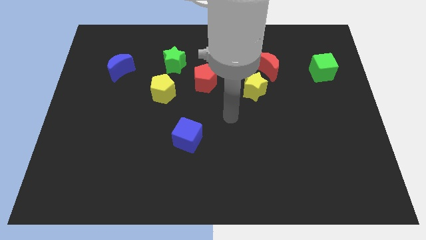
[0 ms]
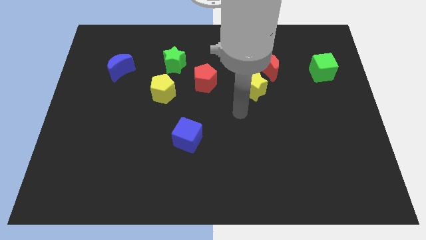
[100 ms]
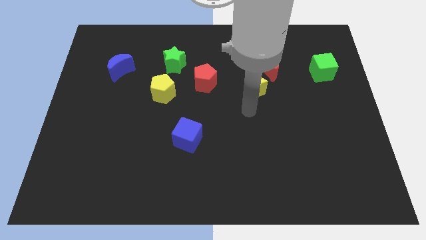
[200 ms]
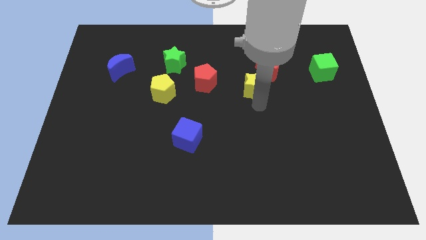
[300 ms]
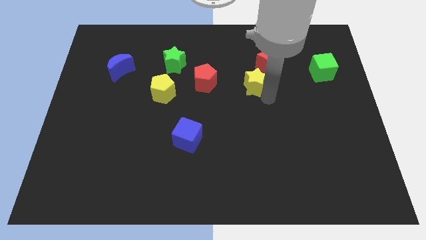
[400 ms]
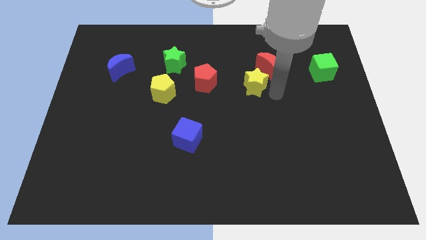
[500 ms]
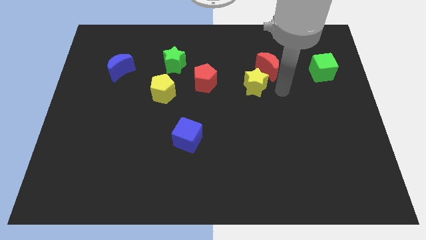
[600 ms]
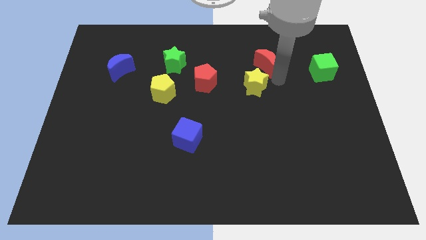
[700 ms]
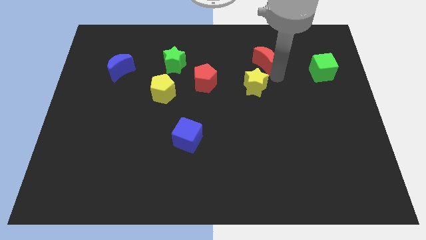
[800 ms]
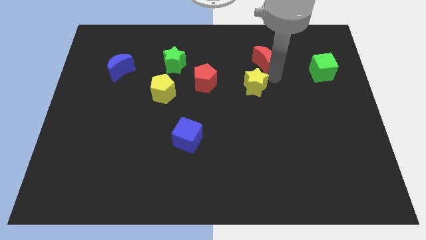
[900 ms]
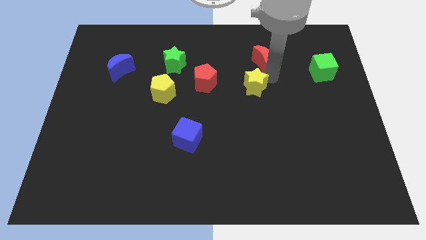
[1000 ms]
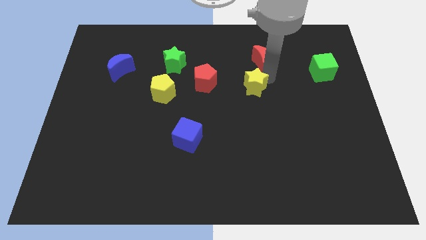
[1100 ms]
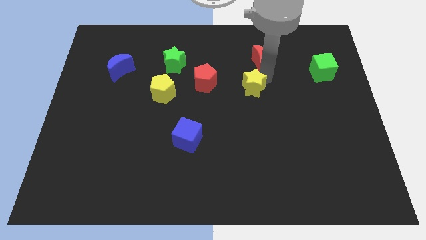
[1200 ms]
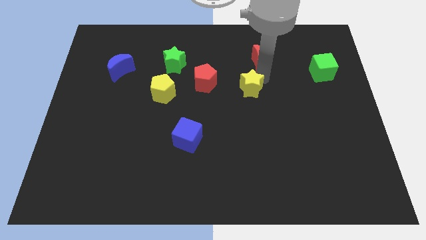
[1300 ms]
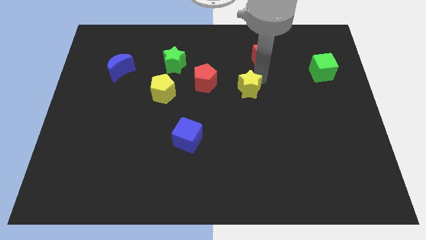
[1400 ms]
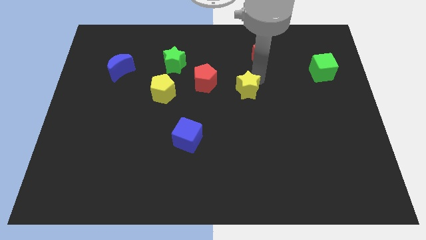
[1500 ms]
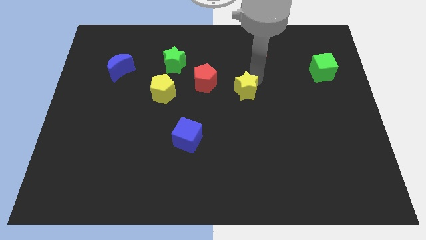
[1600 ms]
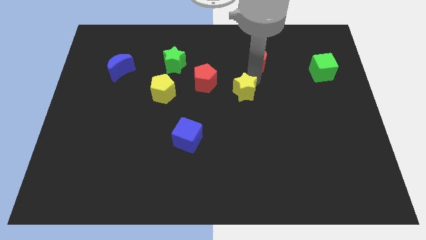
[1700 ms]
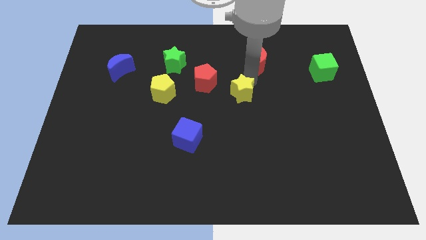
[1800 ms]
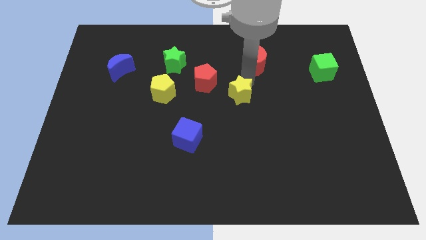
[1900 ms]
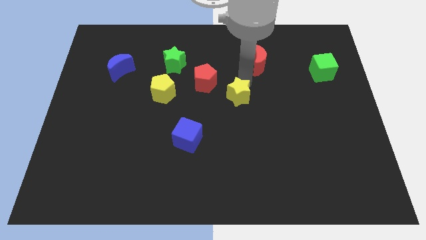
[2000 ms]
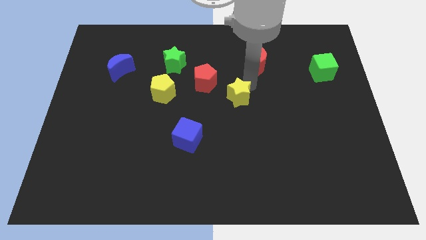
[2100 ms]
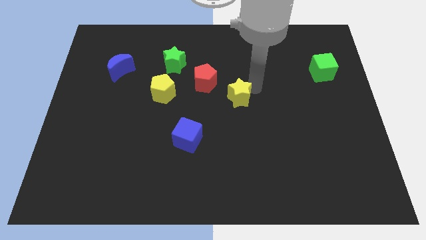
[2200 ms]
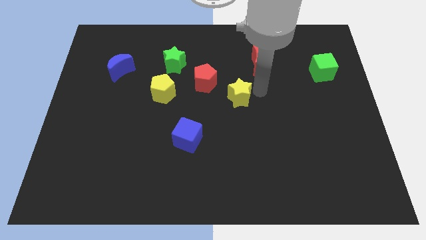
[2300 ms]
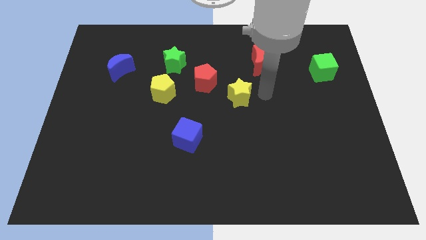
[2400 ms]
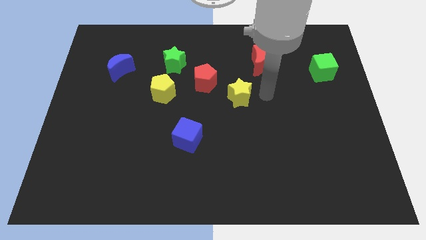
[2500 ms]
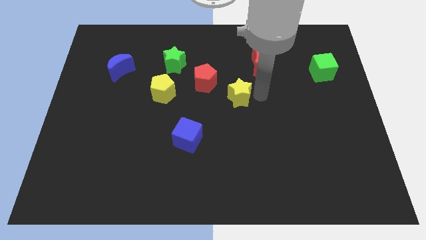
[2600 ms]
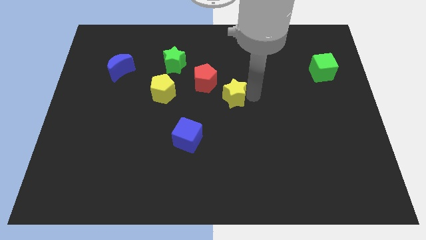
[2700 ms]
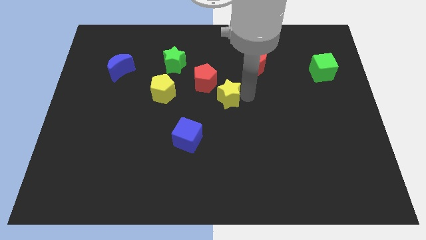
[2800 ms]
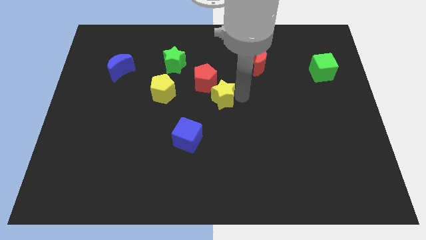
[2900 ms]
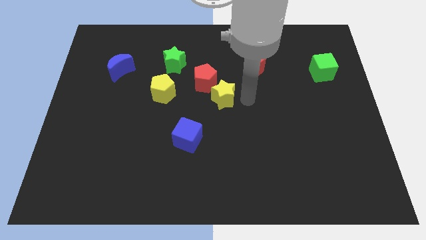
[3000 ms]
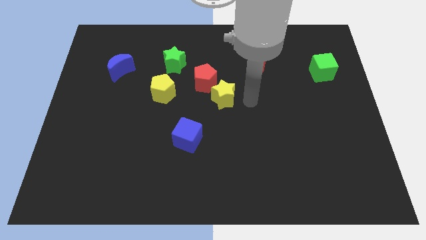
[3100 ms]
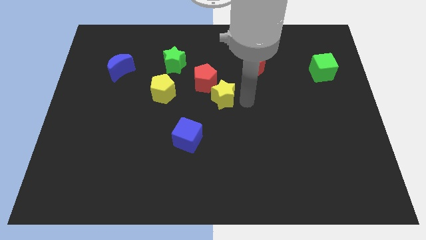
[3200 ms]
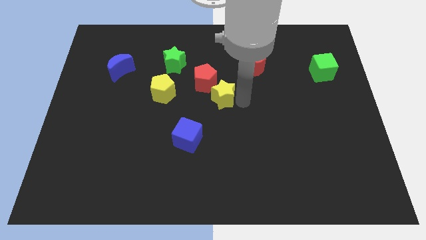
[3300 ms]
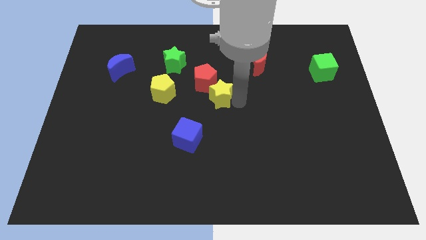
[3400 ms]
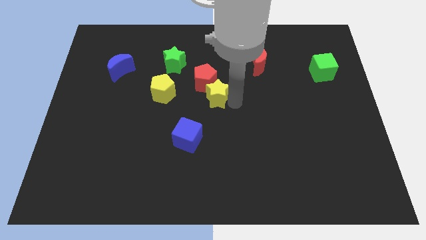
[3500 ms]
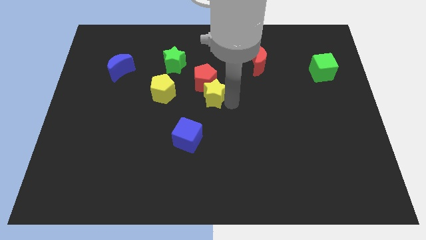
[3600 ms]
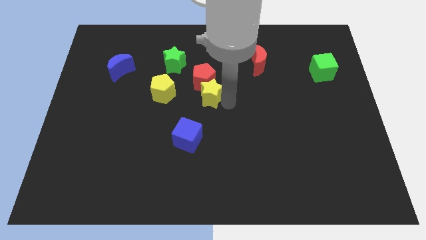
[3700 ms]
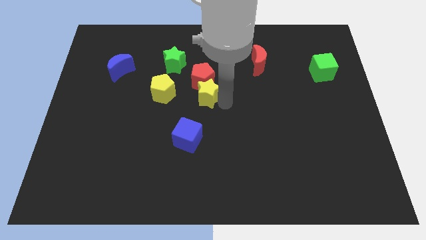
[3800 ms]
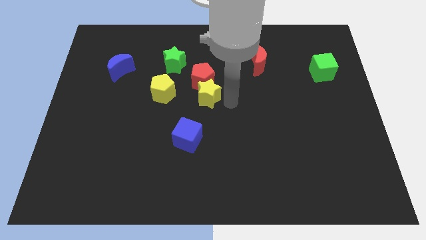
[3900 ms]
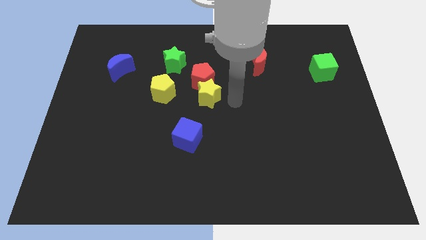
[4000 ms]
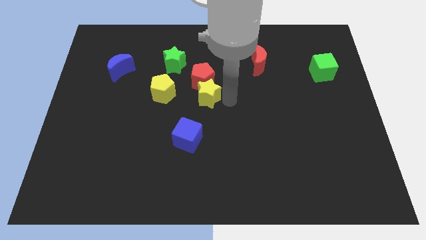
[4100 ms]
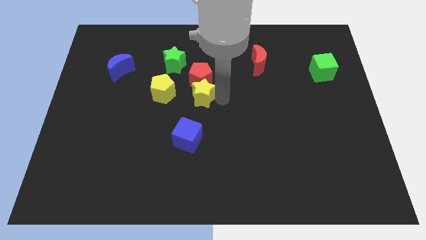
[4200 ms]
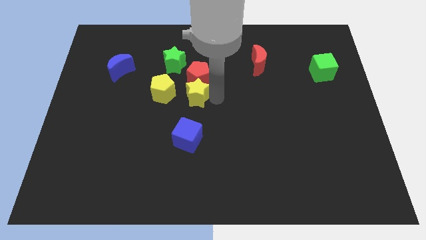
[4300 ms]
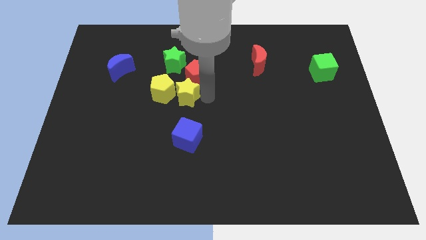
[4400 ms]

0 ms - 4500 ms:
slide the yellow star next to the yellow pentagon

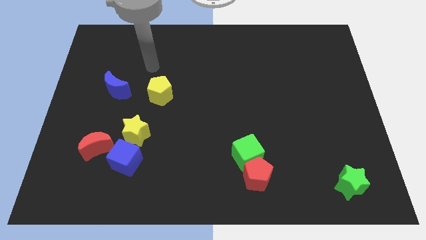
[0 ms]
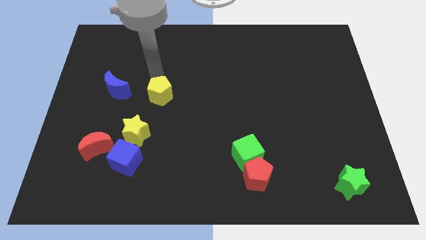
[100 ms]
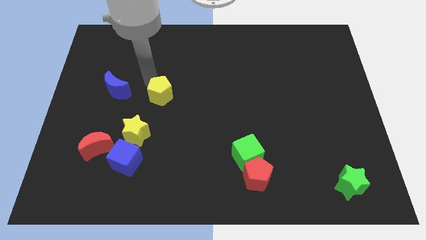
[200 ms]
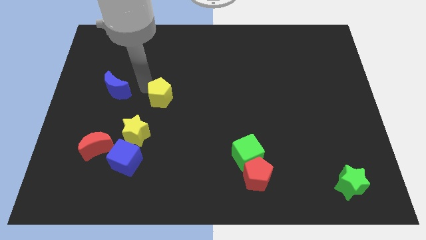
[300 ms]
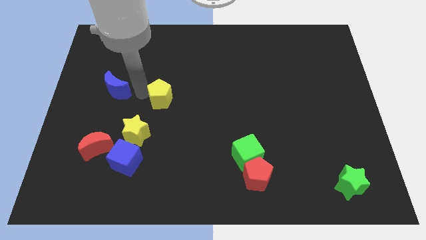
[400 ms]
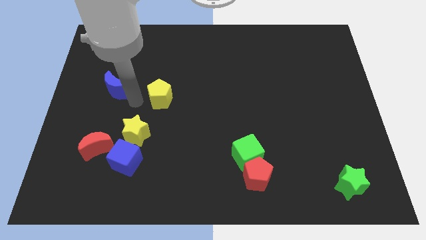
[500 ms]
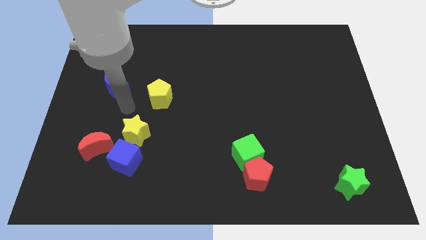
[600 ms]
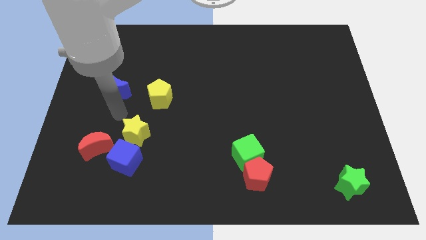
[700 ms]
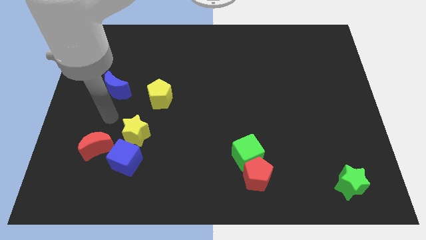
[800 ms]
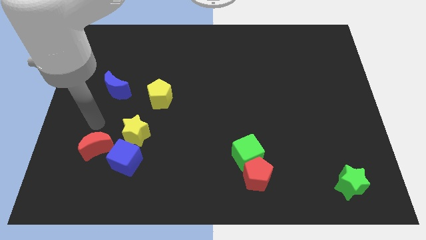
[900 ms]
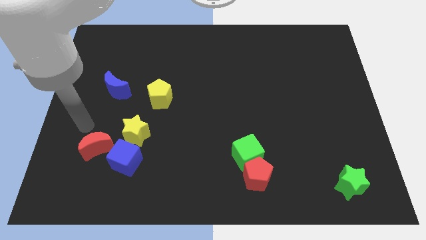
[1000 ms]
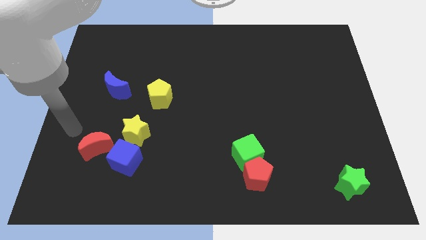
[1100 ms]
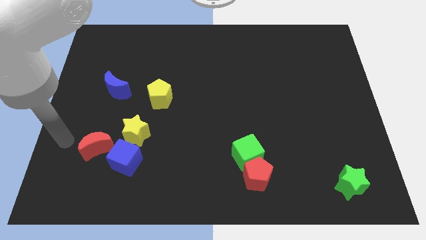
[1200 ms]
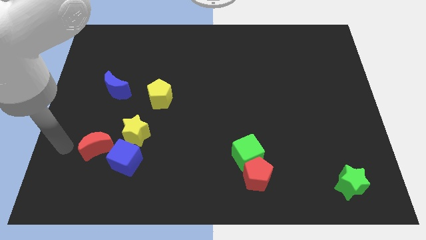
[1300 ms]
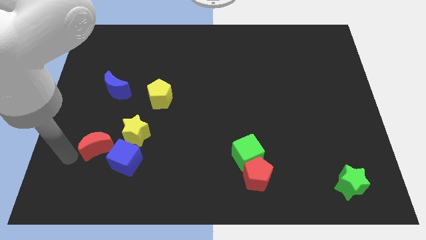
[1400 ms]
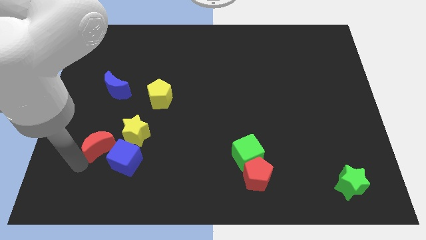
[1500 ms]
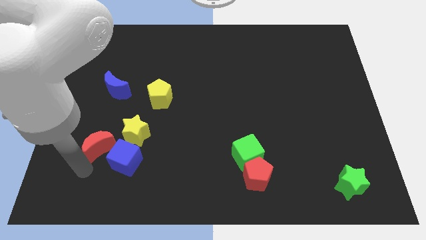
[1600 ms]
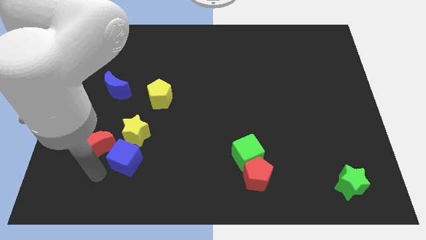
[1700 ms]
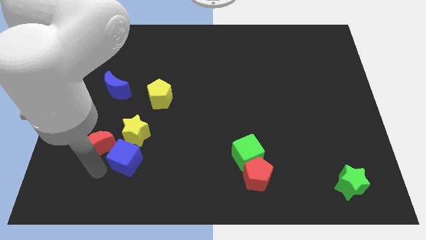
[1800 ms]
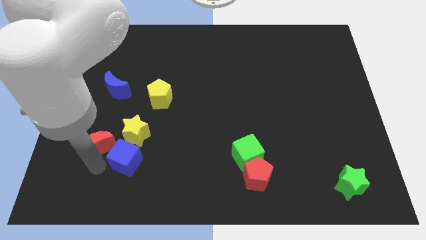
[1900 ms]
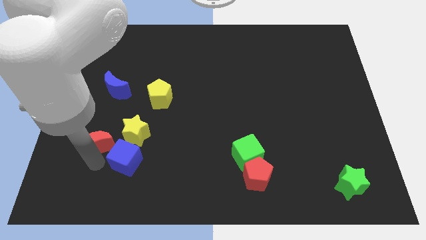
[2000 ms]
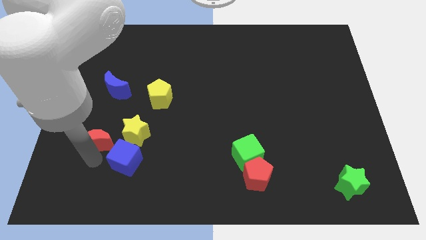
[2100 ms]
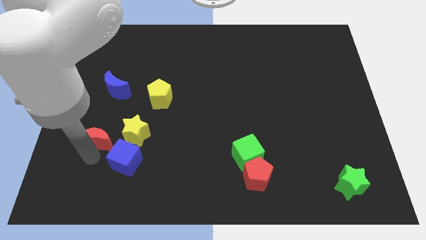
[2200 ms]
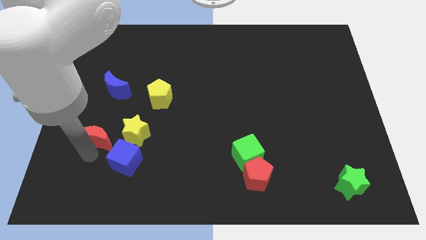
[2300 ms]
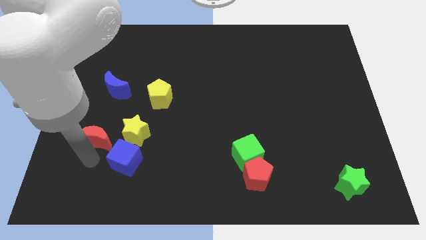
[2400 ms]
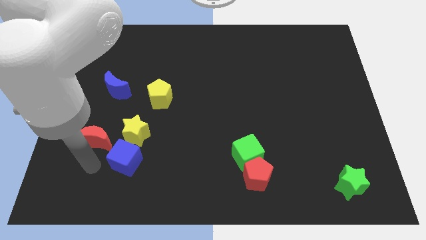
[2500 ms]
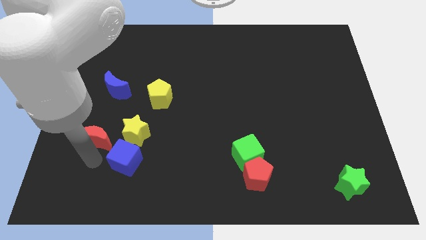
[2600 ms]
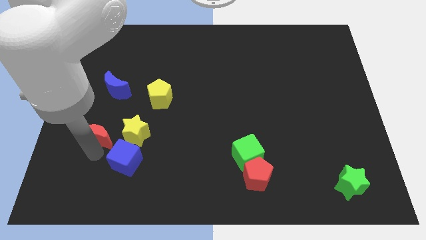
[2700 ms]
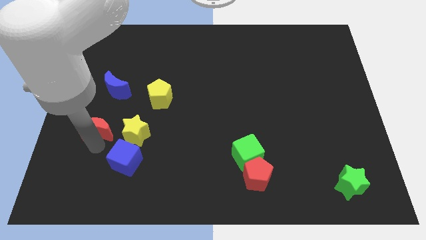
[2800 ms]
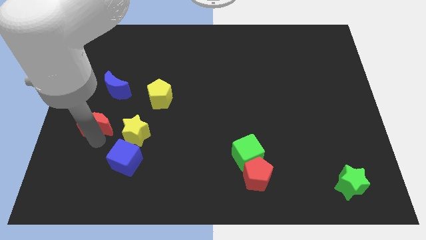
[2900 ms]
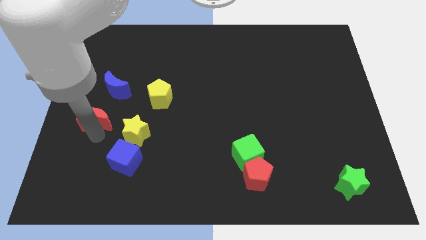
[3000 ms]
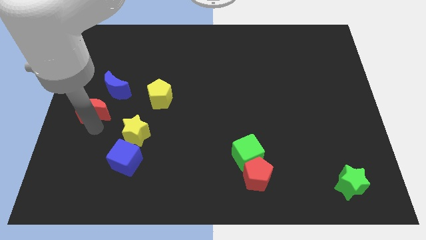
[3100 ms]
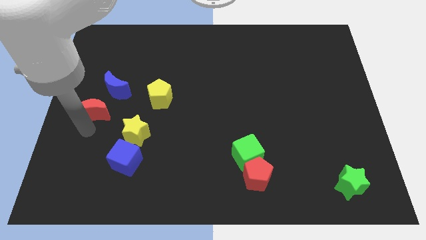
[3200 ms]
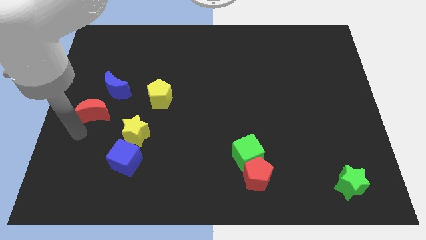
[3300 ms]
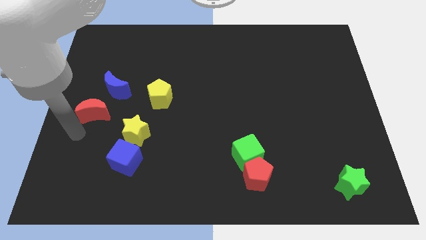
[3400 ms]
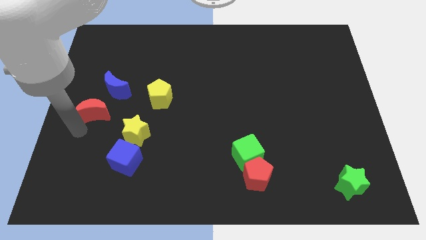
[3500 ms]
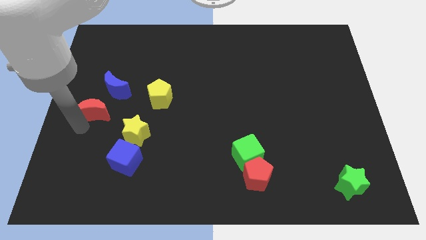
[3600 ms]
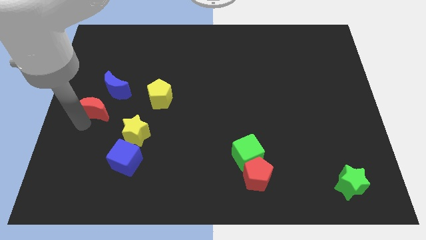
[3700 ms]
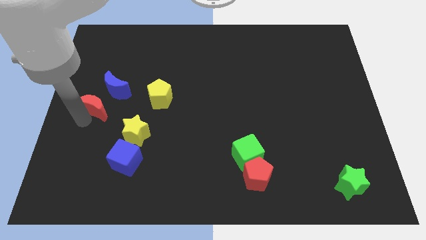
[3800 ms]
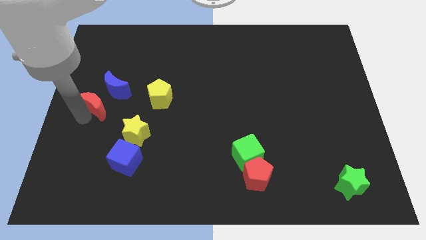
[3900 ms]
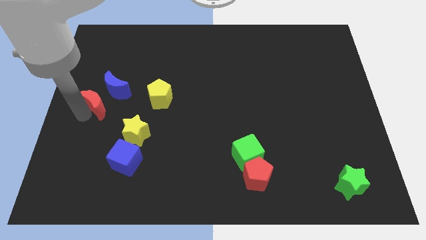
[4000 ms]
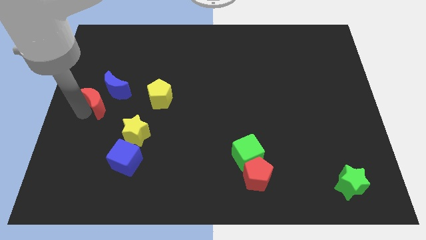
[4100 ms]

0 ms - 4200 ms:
move the red moon close to the blue moon
